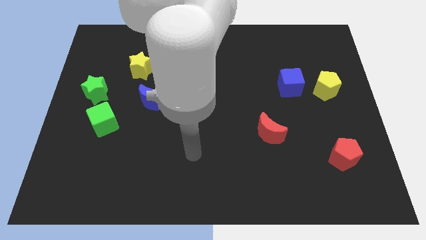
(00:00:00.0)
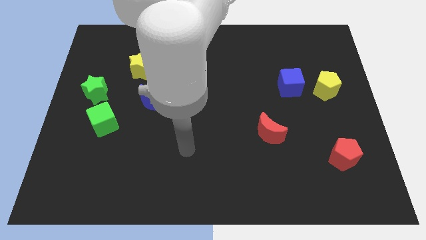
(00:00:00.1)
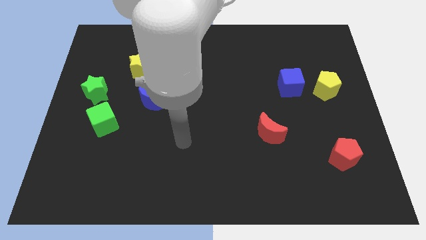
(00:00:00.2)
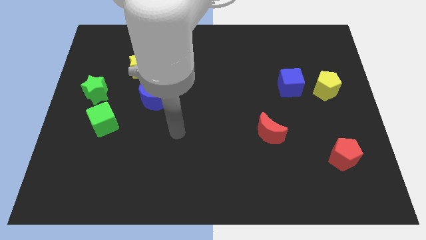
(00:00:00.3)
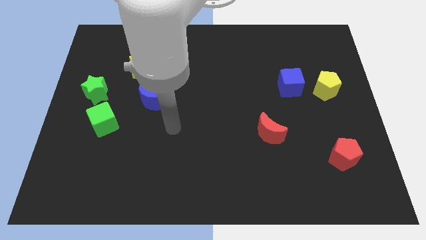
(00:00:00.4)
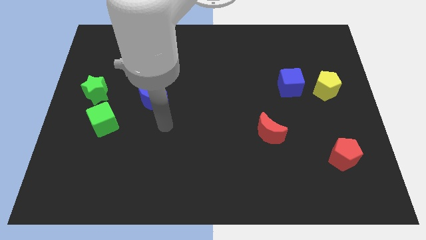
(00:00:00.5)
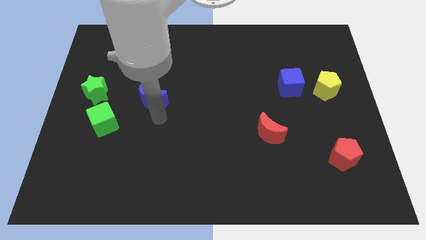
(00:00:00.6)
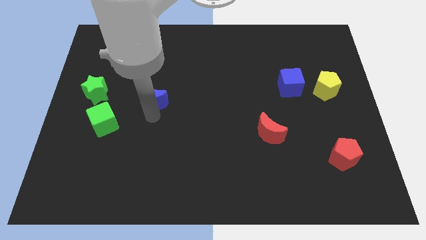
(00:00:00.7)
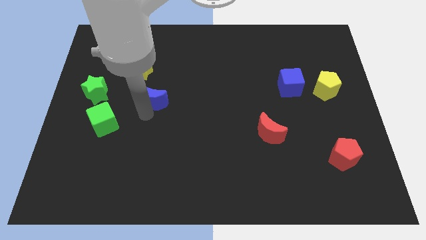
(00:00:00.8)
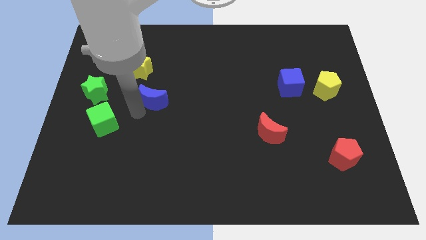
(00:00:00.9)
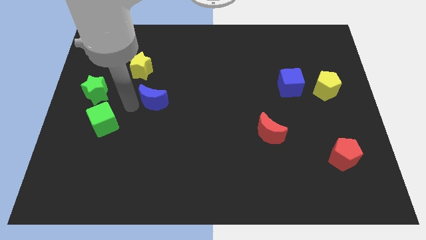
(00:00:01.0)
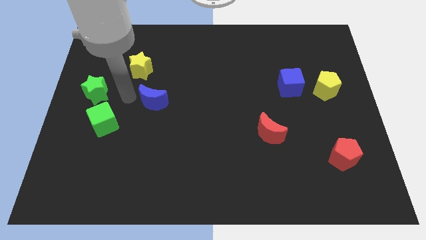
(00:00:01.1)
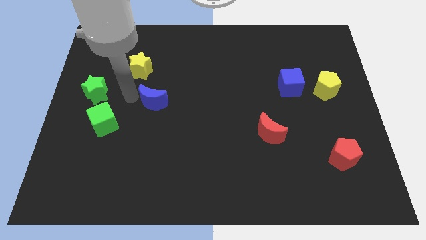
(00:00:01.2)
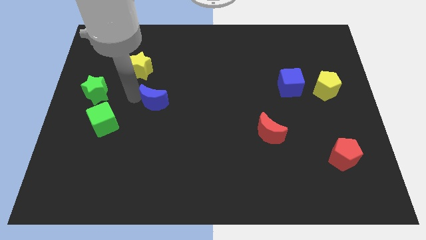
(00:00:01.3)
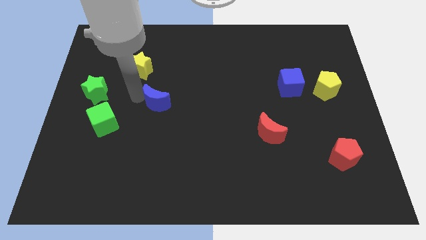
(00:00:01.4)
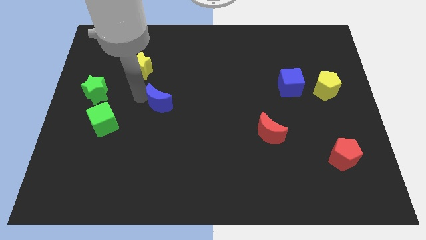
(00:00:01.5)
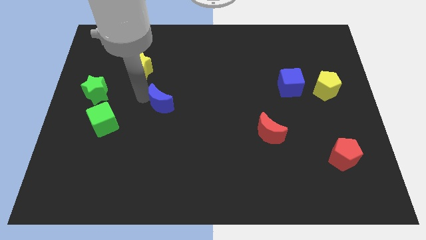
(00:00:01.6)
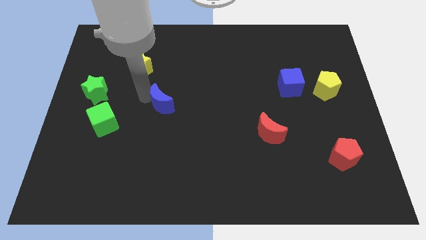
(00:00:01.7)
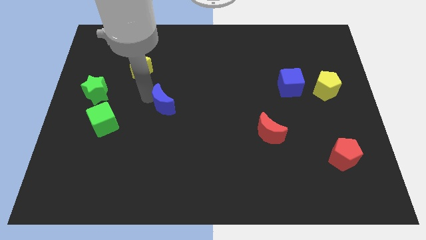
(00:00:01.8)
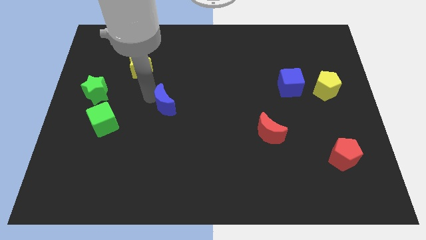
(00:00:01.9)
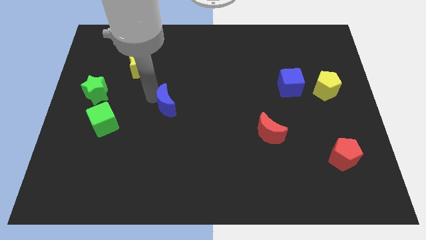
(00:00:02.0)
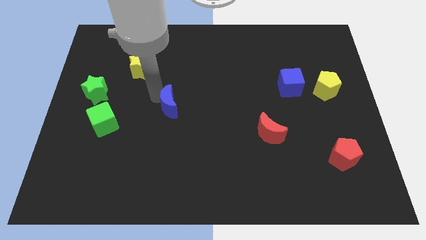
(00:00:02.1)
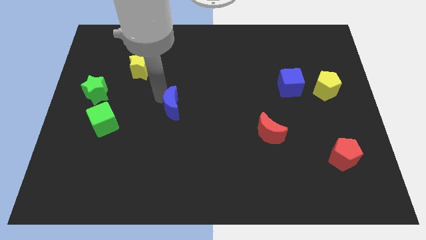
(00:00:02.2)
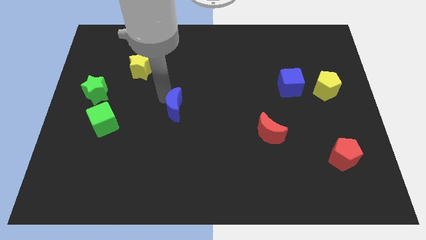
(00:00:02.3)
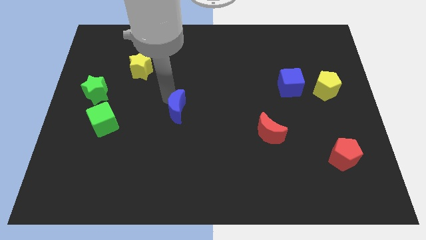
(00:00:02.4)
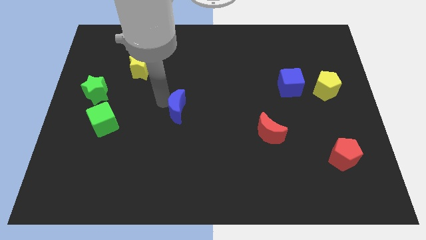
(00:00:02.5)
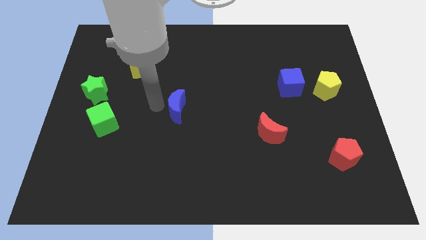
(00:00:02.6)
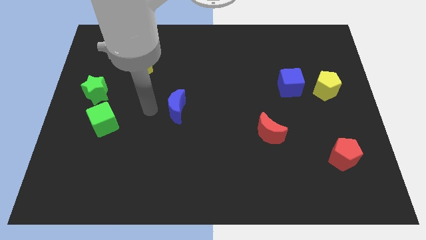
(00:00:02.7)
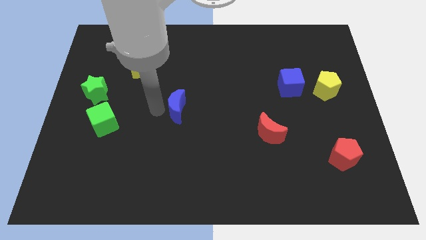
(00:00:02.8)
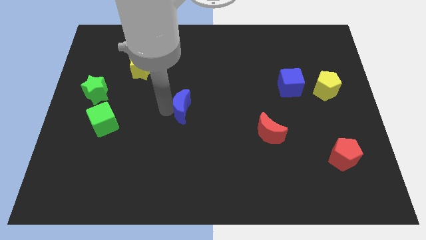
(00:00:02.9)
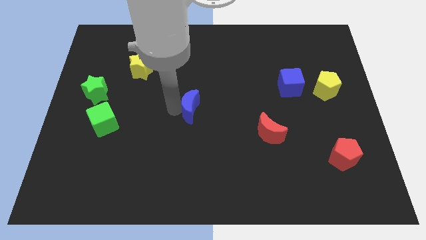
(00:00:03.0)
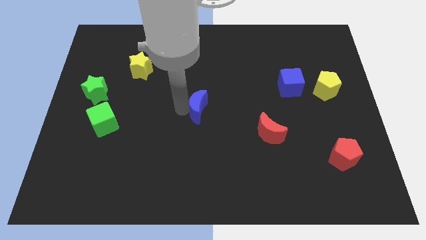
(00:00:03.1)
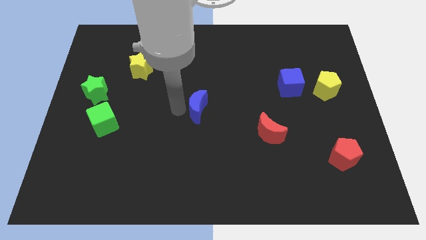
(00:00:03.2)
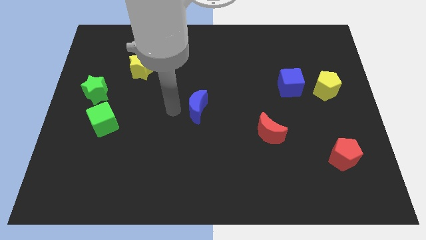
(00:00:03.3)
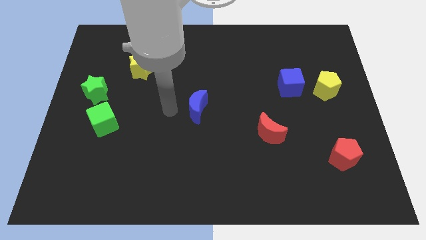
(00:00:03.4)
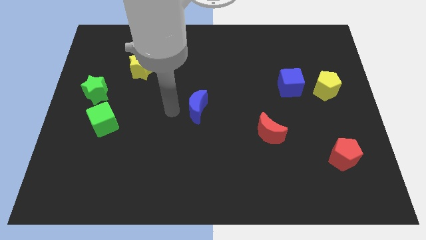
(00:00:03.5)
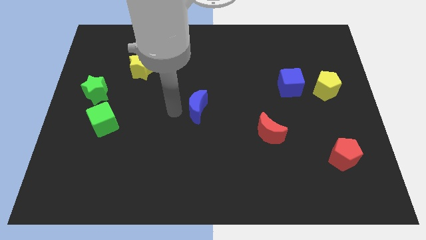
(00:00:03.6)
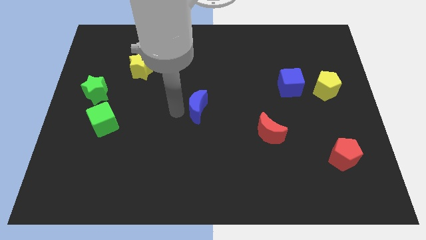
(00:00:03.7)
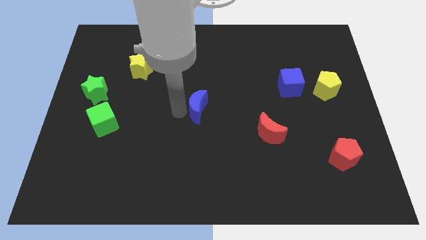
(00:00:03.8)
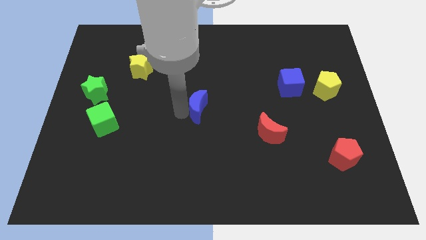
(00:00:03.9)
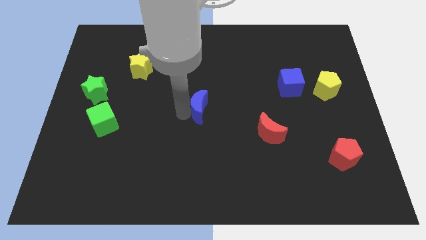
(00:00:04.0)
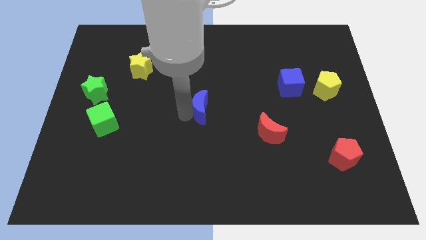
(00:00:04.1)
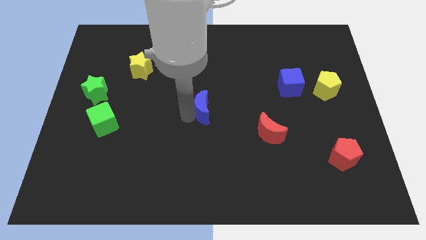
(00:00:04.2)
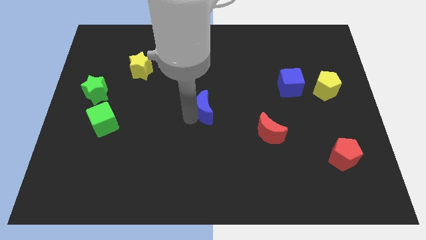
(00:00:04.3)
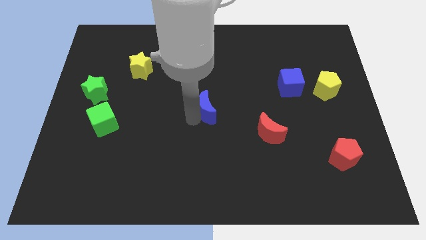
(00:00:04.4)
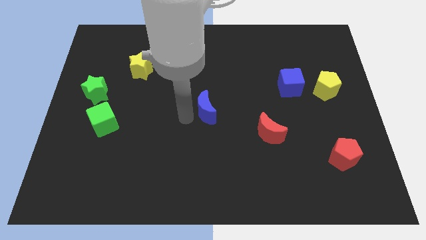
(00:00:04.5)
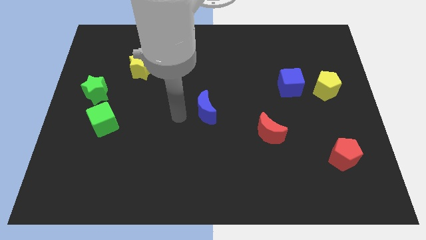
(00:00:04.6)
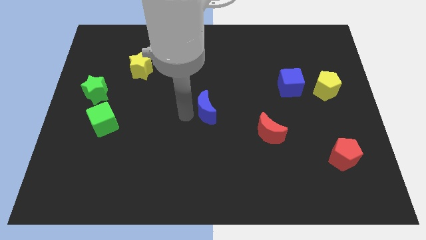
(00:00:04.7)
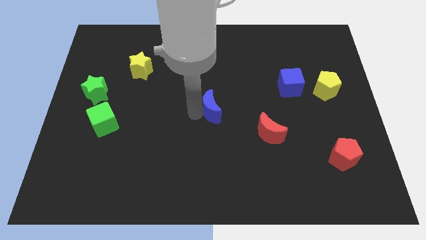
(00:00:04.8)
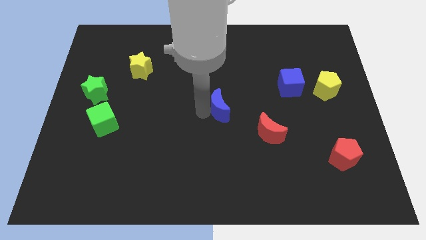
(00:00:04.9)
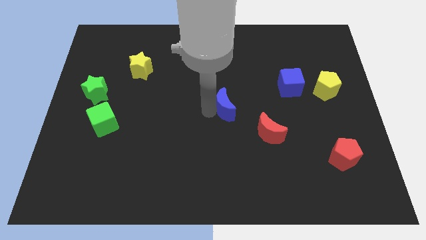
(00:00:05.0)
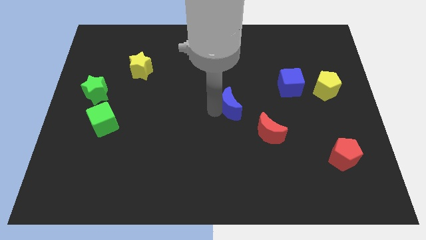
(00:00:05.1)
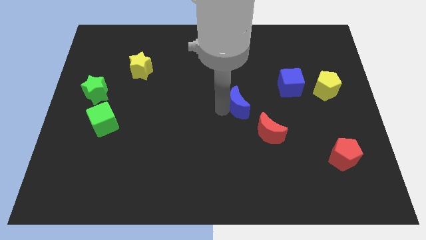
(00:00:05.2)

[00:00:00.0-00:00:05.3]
push the blue moon to the right

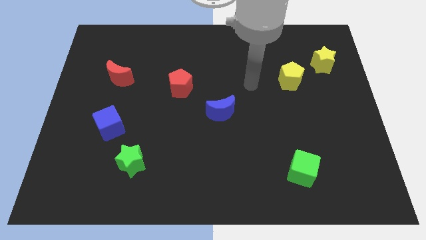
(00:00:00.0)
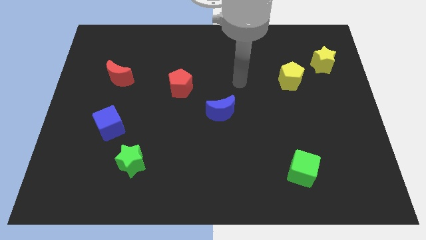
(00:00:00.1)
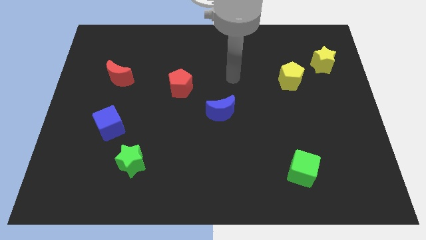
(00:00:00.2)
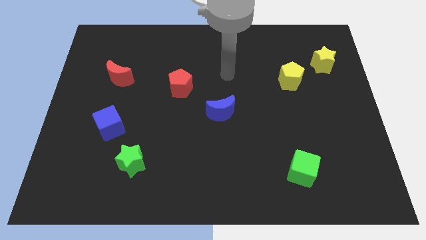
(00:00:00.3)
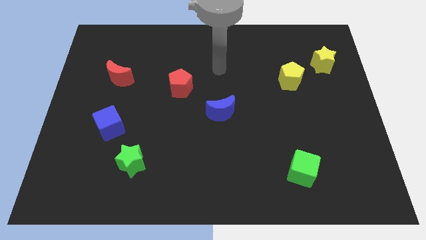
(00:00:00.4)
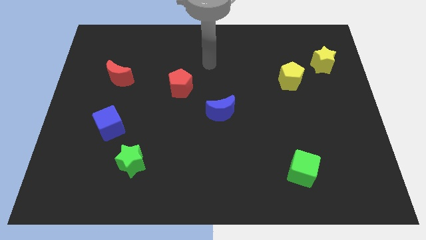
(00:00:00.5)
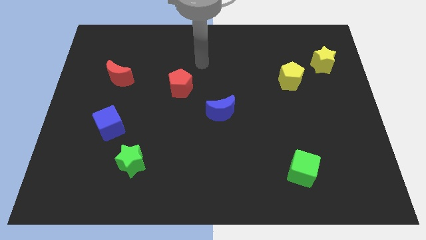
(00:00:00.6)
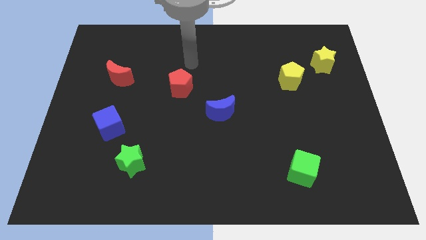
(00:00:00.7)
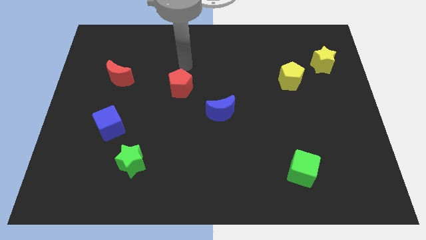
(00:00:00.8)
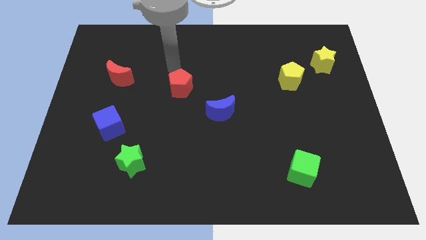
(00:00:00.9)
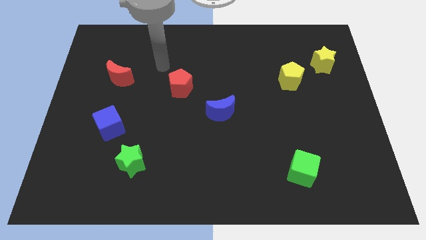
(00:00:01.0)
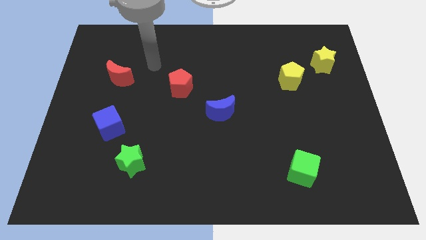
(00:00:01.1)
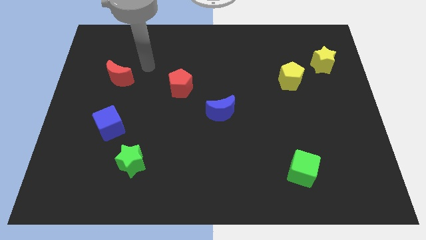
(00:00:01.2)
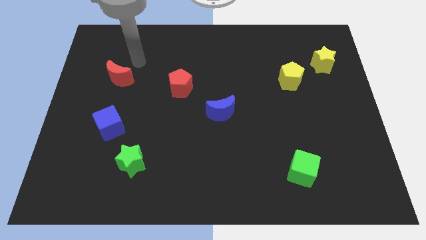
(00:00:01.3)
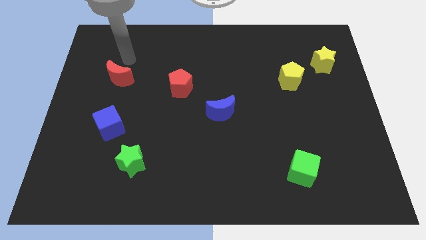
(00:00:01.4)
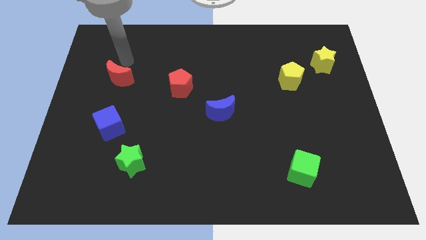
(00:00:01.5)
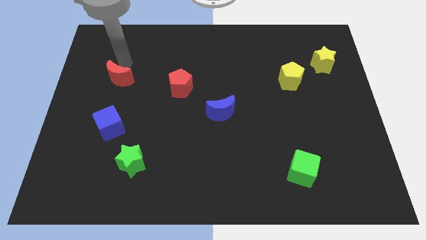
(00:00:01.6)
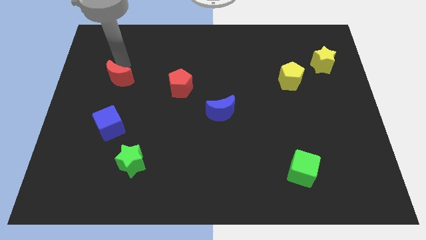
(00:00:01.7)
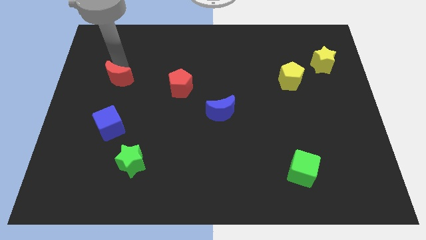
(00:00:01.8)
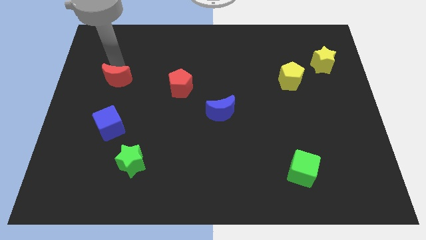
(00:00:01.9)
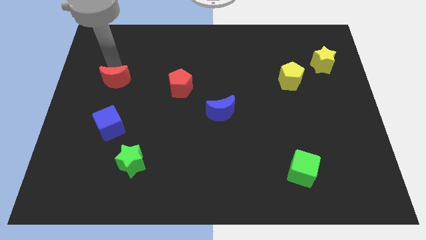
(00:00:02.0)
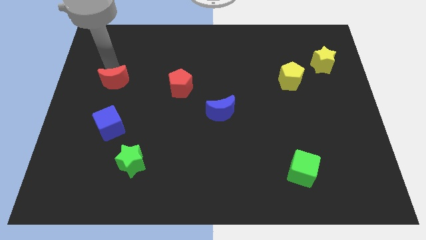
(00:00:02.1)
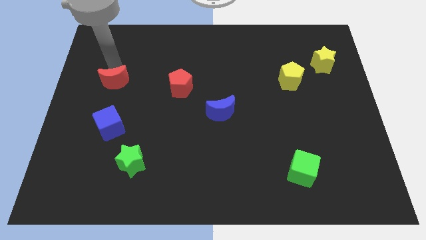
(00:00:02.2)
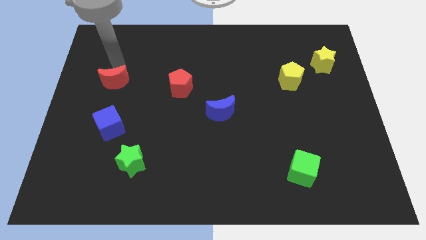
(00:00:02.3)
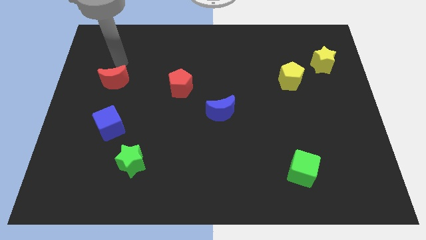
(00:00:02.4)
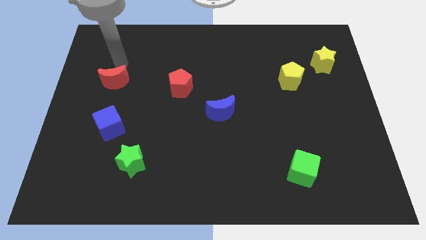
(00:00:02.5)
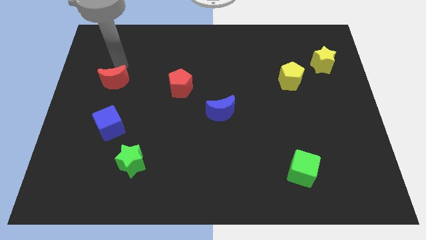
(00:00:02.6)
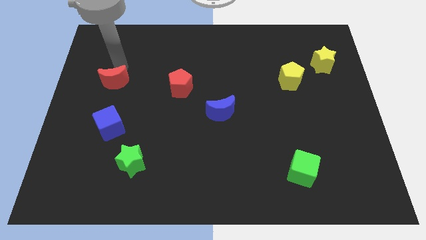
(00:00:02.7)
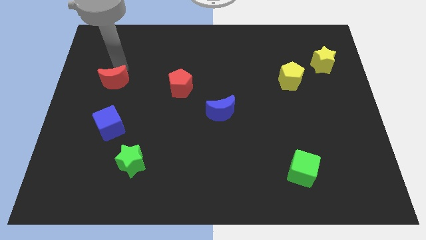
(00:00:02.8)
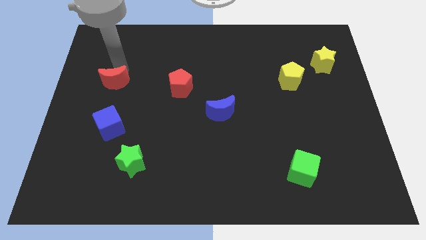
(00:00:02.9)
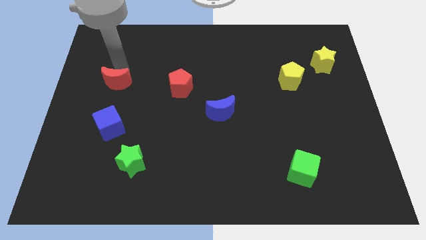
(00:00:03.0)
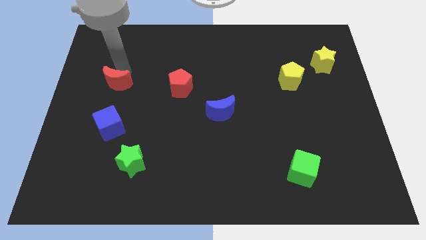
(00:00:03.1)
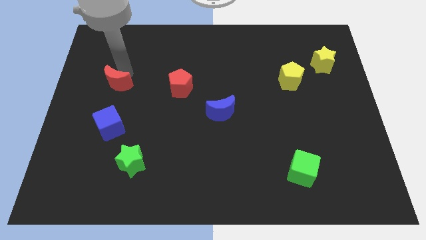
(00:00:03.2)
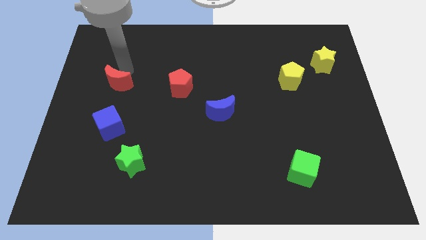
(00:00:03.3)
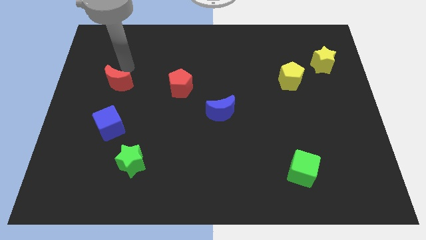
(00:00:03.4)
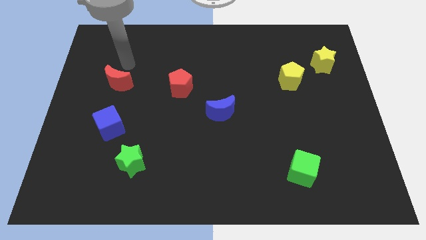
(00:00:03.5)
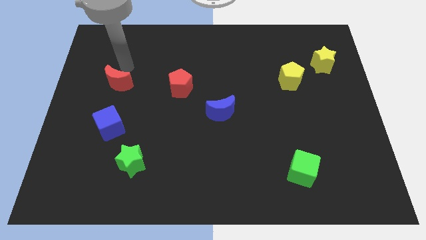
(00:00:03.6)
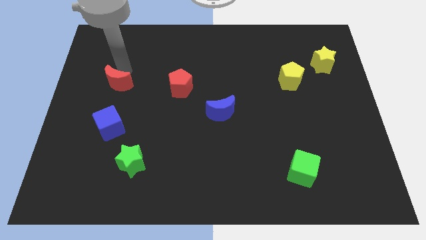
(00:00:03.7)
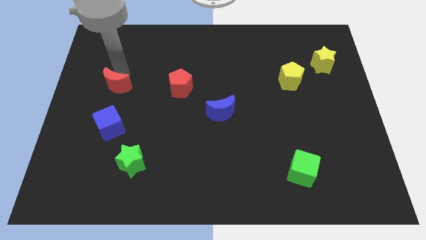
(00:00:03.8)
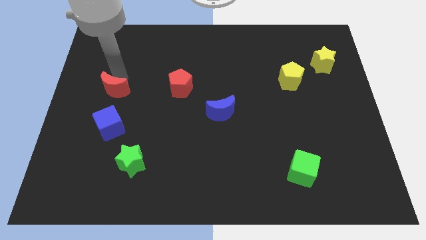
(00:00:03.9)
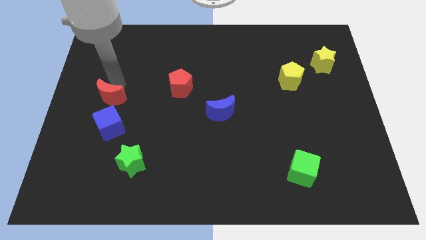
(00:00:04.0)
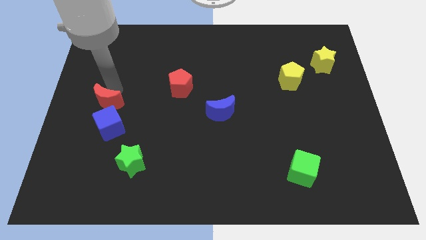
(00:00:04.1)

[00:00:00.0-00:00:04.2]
push the red moon slightly downwards
